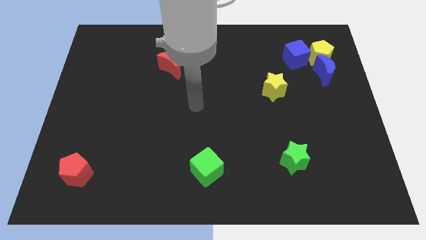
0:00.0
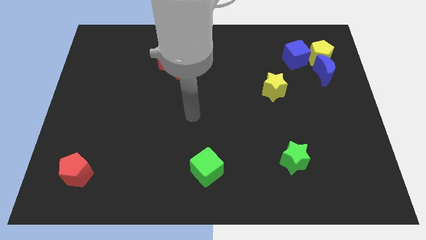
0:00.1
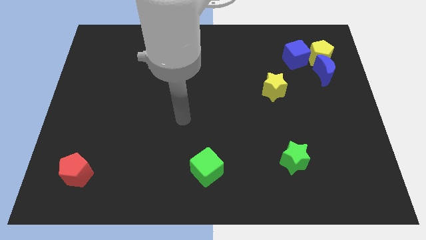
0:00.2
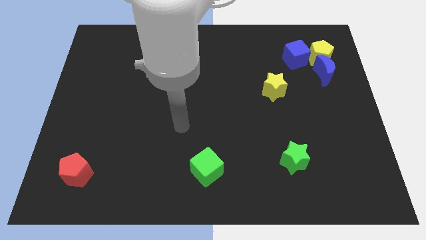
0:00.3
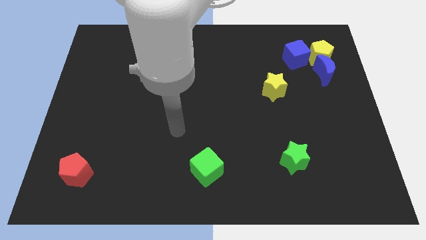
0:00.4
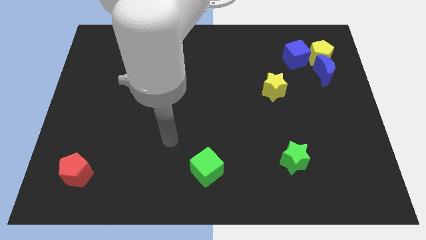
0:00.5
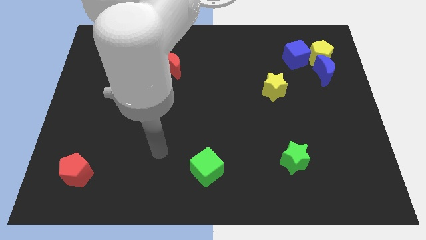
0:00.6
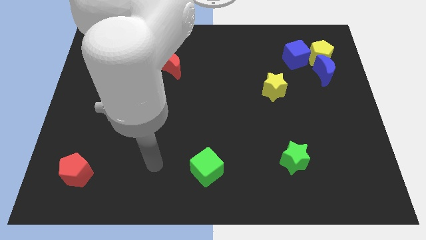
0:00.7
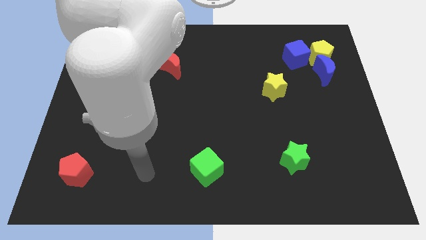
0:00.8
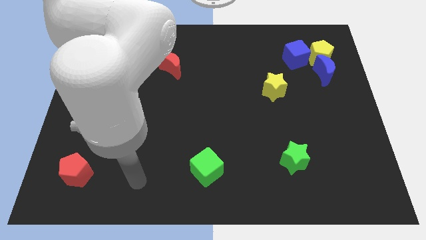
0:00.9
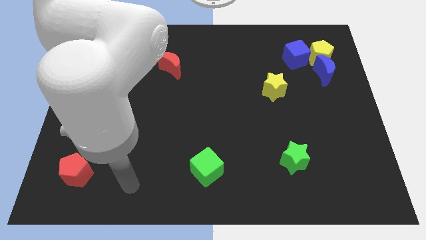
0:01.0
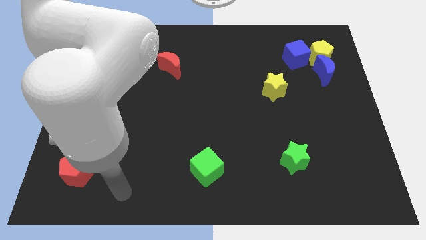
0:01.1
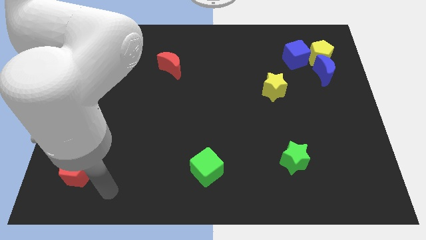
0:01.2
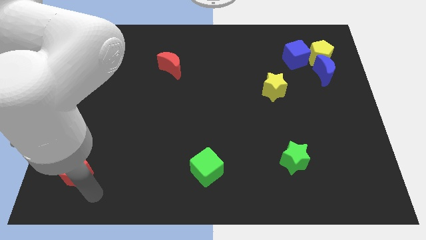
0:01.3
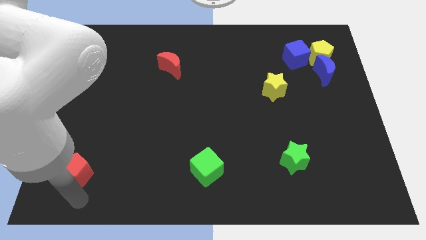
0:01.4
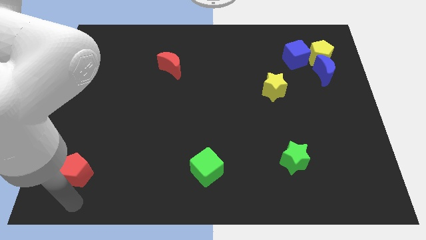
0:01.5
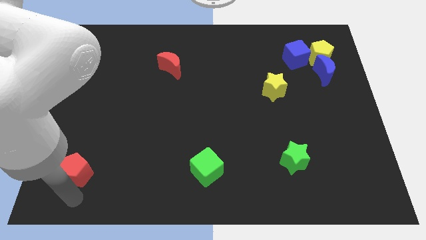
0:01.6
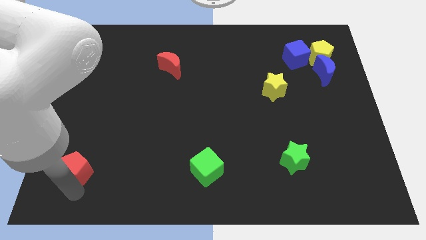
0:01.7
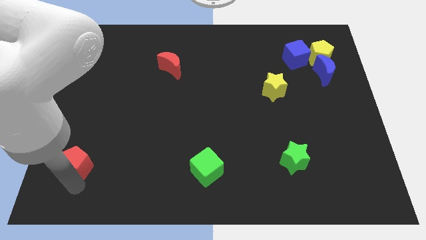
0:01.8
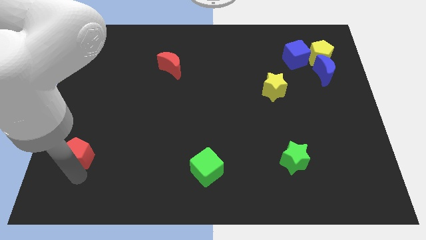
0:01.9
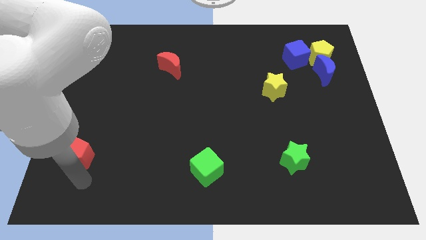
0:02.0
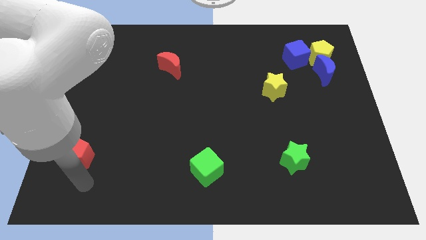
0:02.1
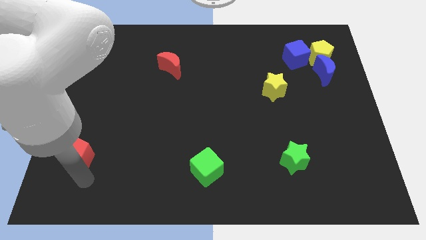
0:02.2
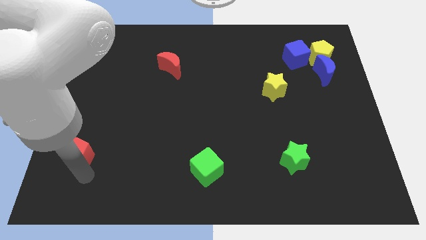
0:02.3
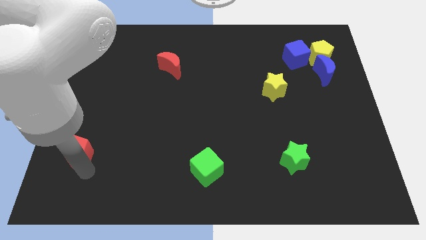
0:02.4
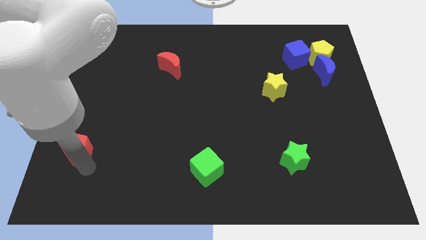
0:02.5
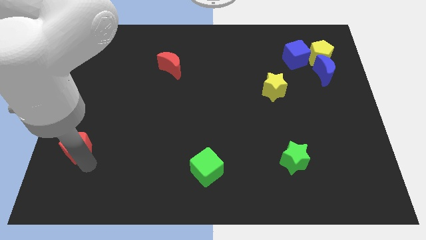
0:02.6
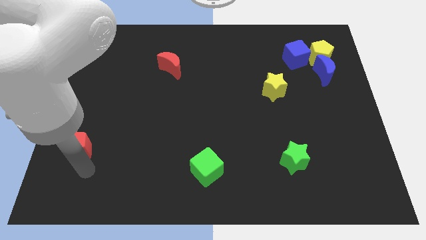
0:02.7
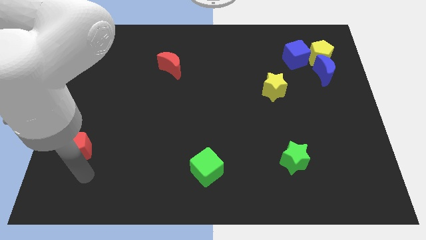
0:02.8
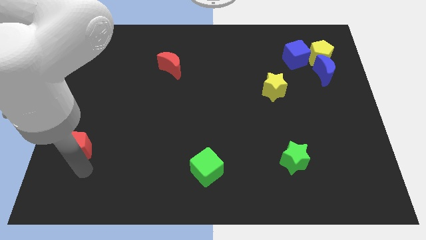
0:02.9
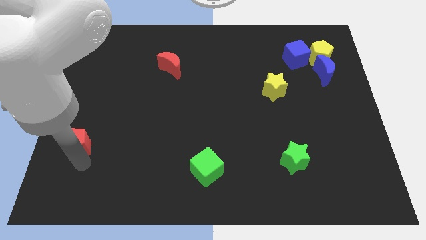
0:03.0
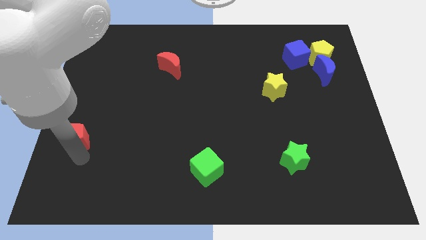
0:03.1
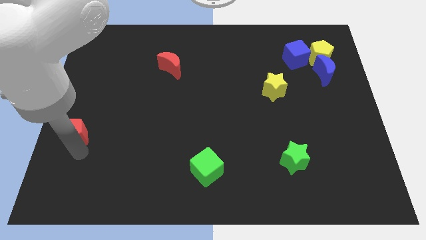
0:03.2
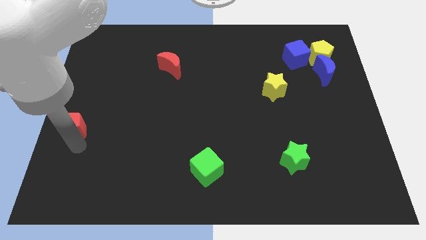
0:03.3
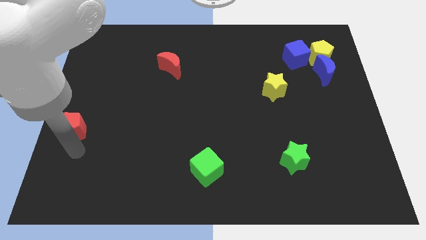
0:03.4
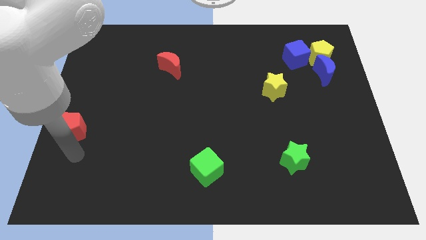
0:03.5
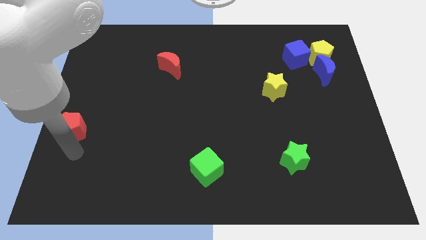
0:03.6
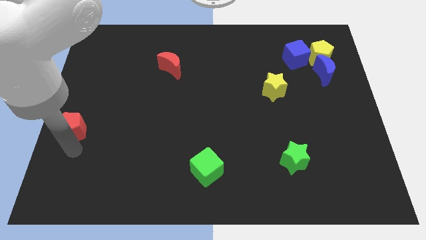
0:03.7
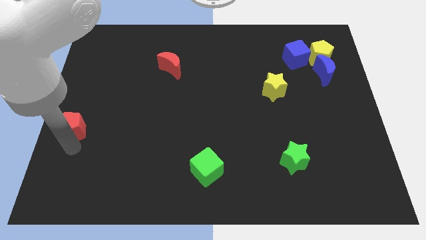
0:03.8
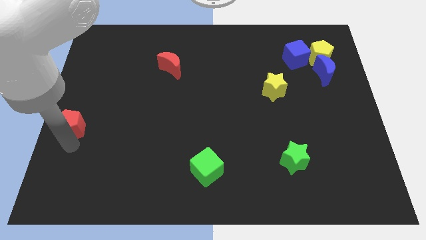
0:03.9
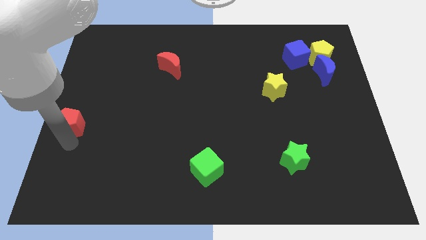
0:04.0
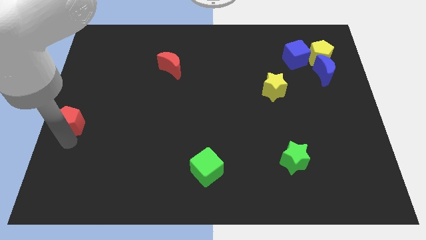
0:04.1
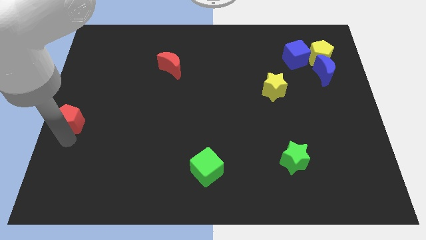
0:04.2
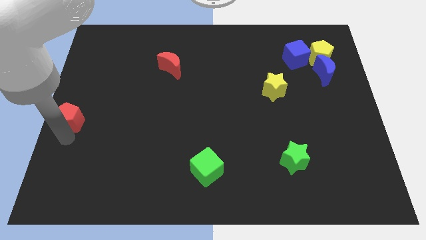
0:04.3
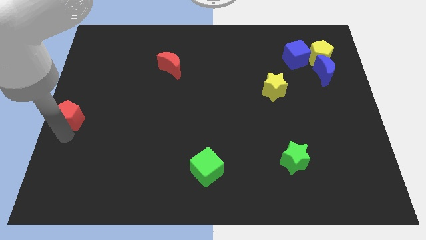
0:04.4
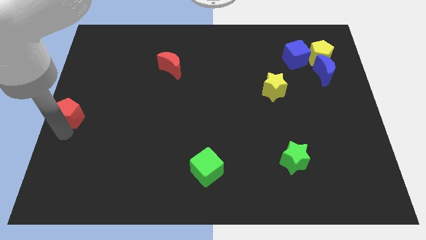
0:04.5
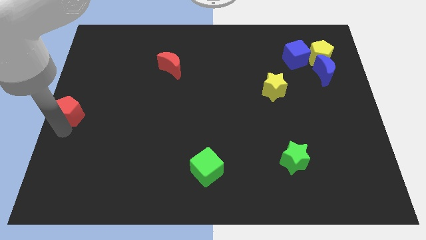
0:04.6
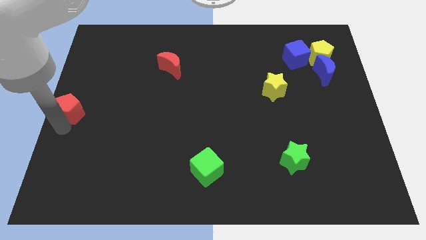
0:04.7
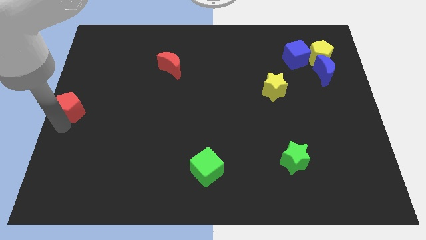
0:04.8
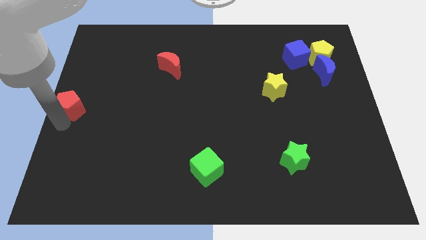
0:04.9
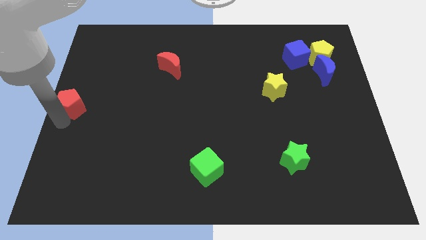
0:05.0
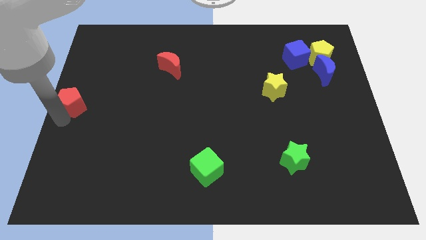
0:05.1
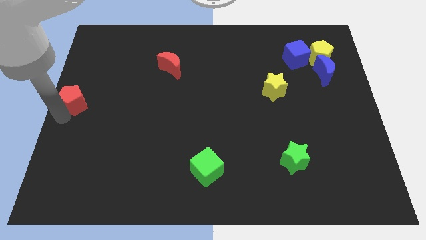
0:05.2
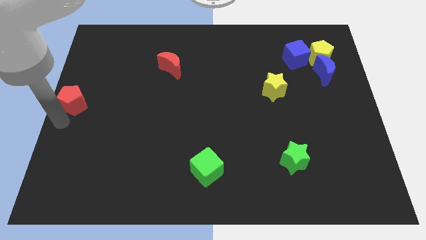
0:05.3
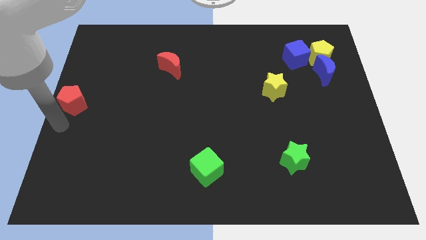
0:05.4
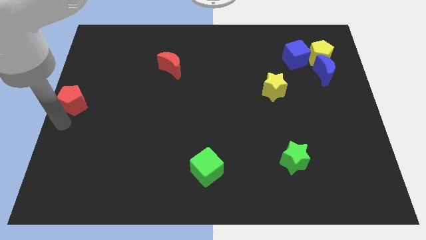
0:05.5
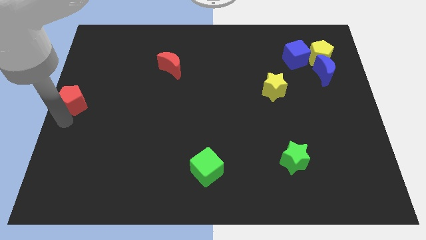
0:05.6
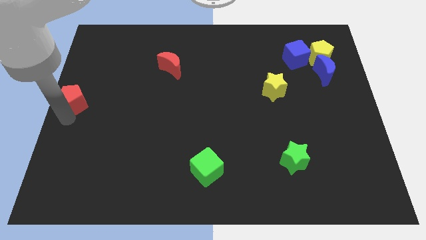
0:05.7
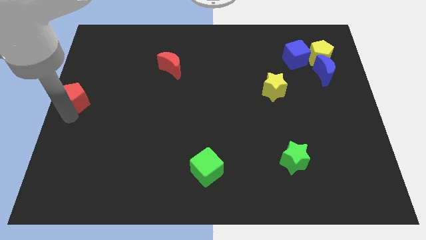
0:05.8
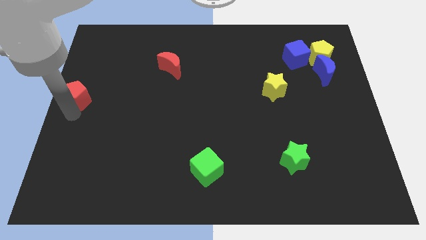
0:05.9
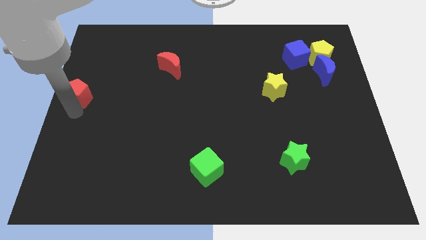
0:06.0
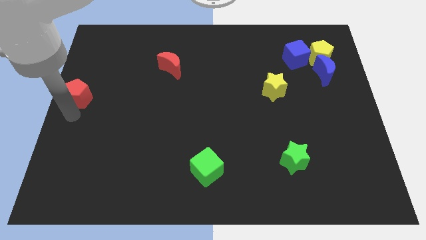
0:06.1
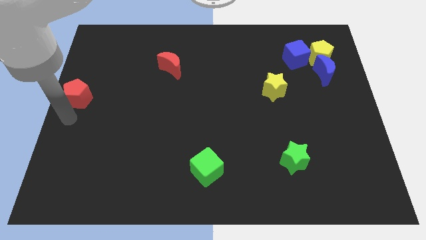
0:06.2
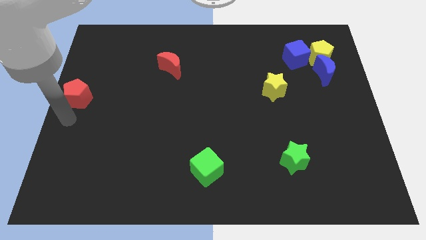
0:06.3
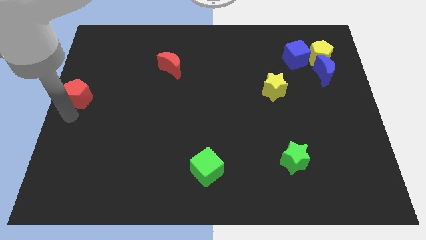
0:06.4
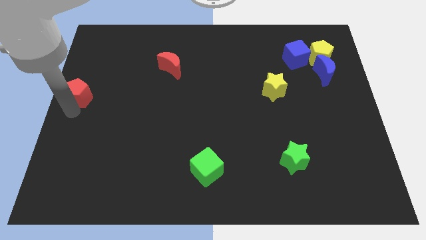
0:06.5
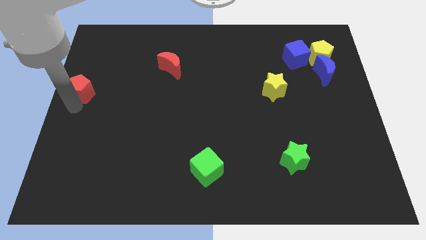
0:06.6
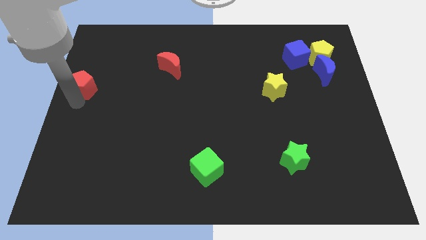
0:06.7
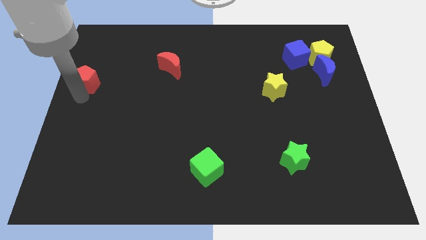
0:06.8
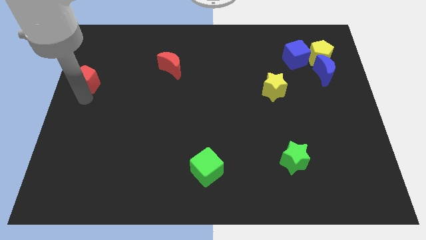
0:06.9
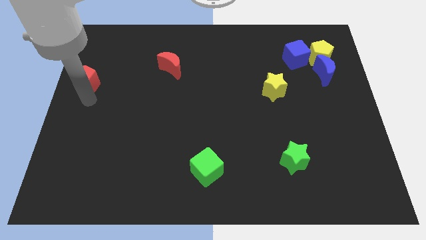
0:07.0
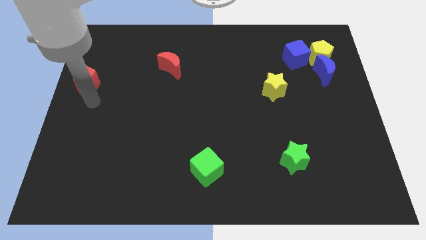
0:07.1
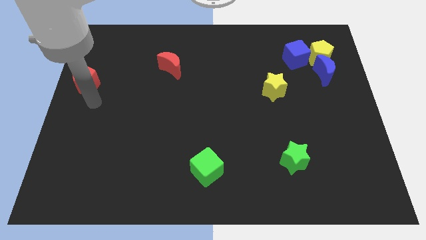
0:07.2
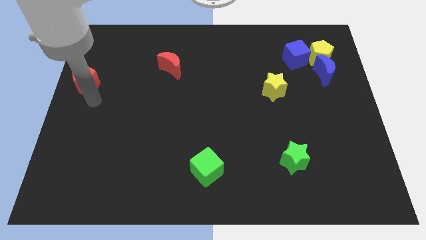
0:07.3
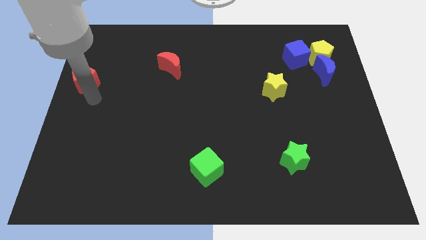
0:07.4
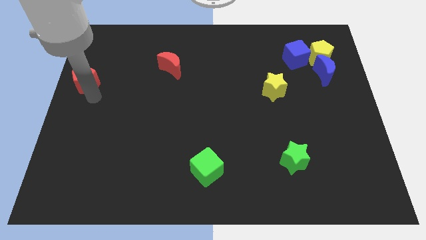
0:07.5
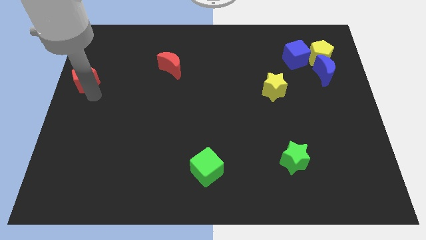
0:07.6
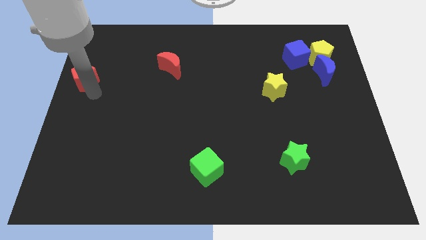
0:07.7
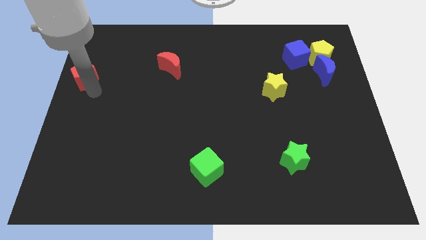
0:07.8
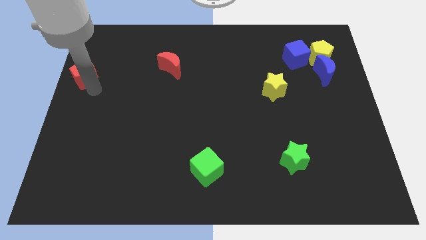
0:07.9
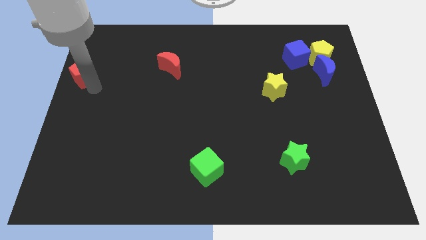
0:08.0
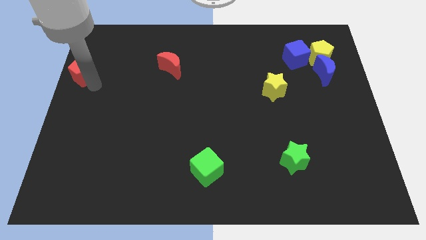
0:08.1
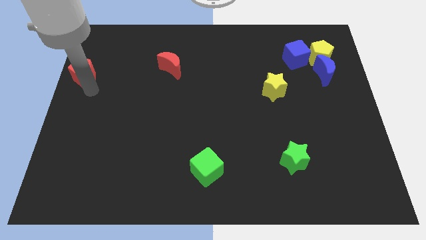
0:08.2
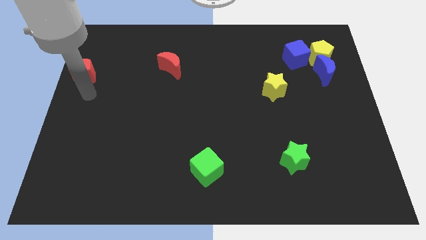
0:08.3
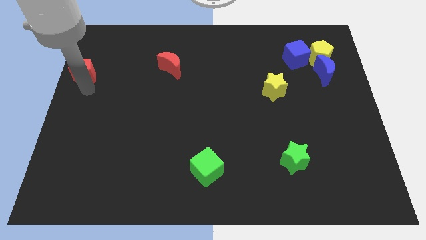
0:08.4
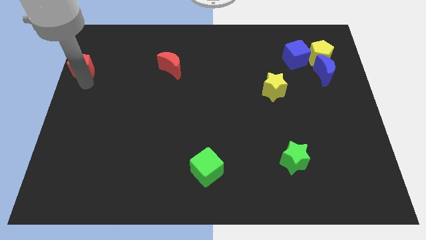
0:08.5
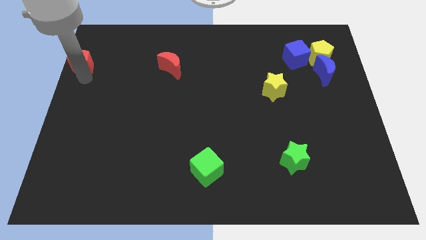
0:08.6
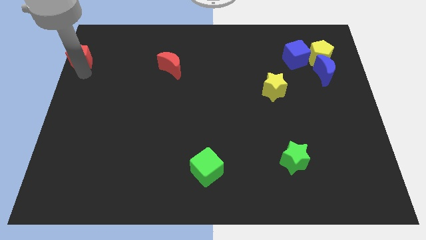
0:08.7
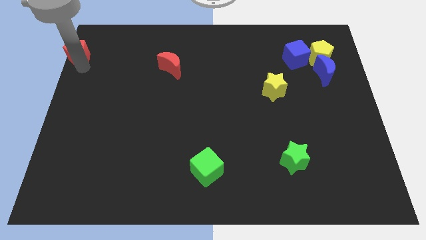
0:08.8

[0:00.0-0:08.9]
push the red pentagon to the top left corner
